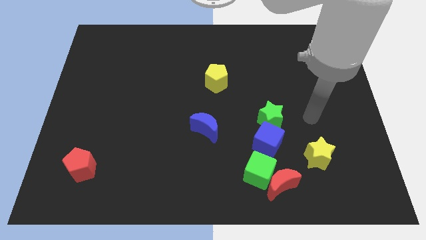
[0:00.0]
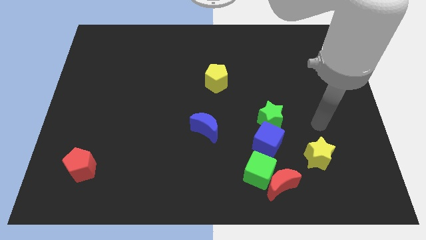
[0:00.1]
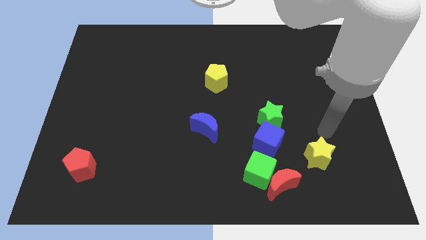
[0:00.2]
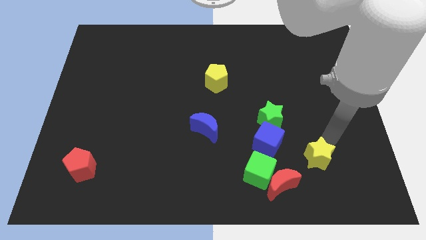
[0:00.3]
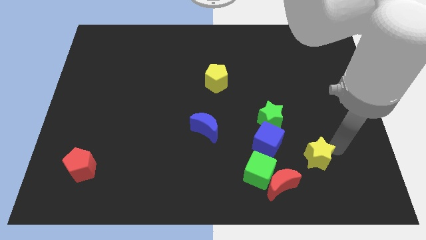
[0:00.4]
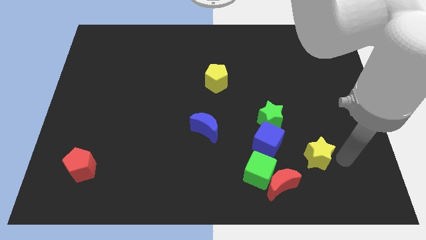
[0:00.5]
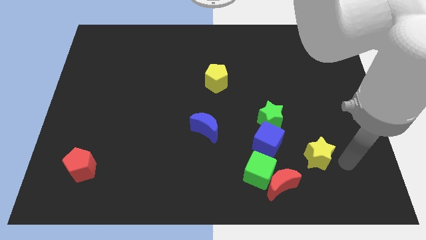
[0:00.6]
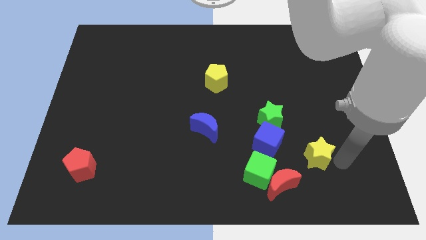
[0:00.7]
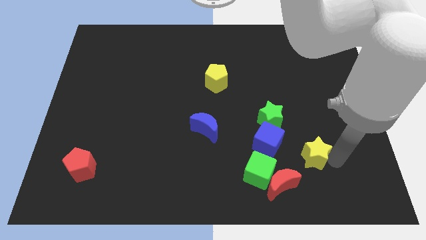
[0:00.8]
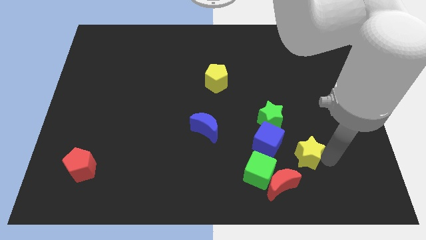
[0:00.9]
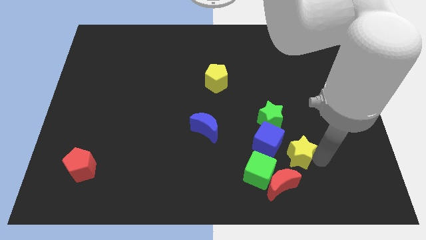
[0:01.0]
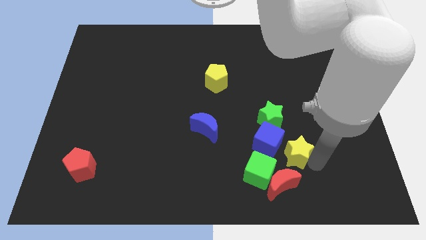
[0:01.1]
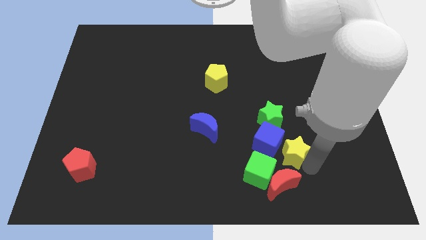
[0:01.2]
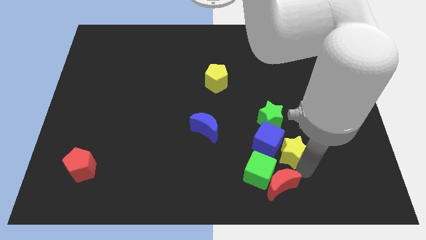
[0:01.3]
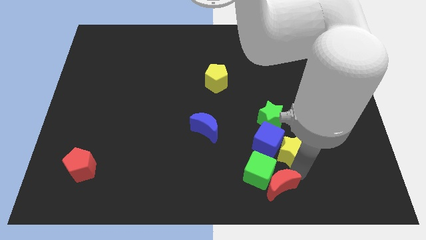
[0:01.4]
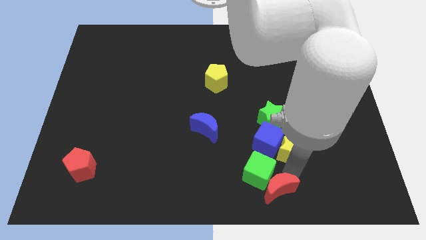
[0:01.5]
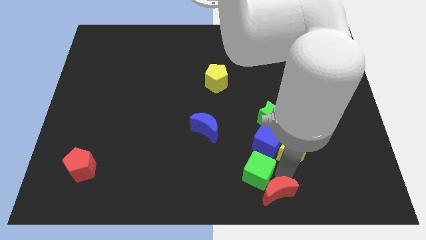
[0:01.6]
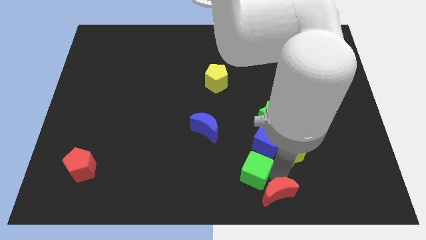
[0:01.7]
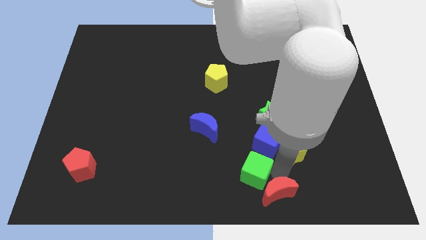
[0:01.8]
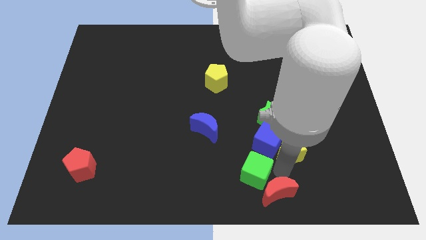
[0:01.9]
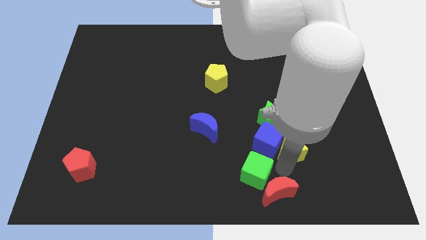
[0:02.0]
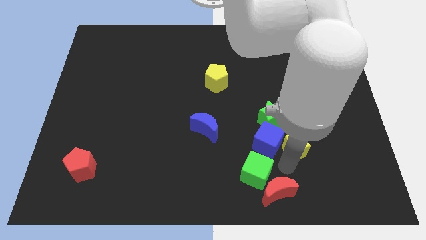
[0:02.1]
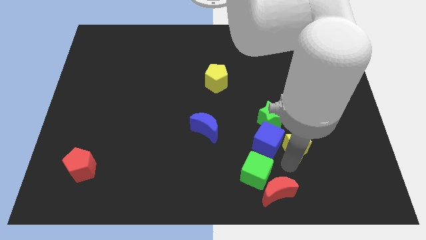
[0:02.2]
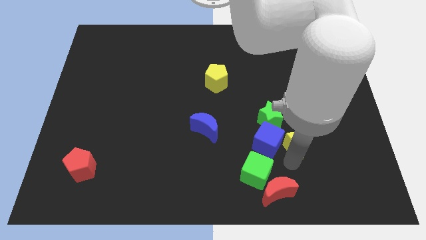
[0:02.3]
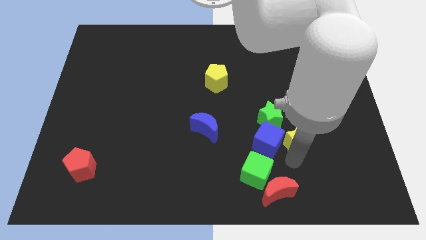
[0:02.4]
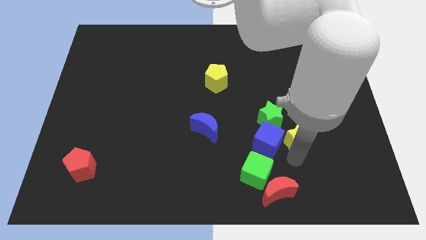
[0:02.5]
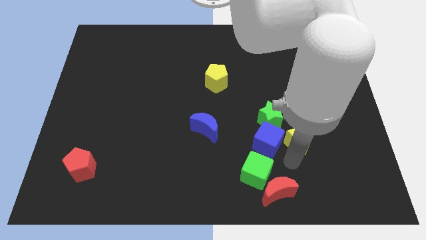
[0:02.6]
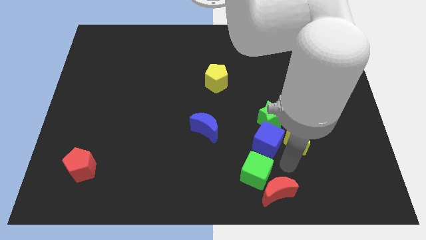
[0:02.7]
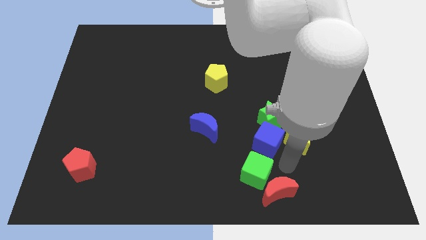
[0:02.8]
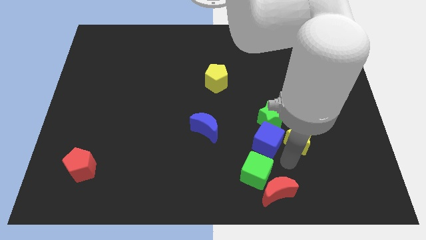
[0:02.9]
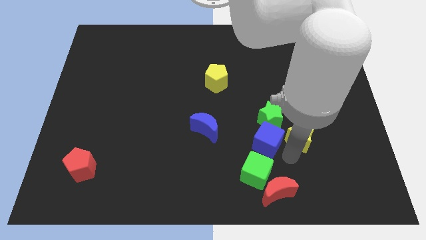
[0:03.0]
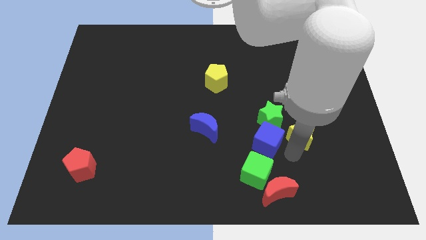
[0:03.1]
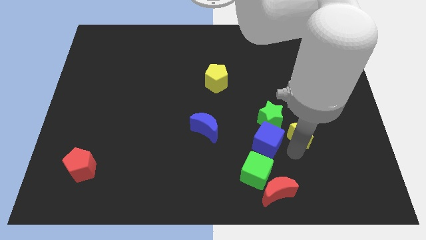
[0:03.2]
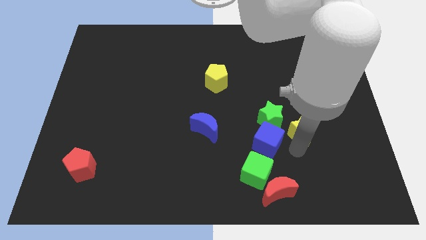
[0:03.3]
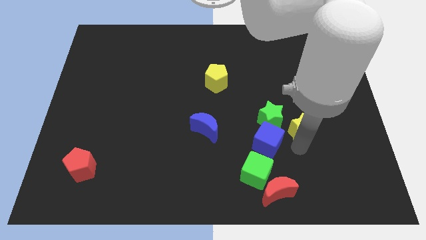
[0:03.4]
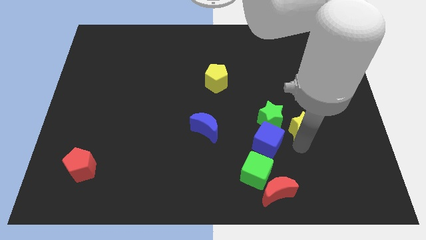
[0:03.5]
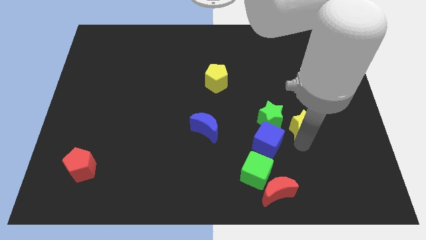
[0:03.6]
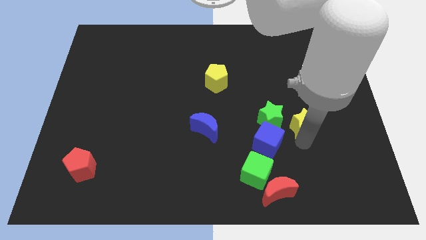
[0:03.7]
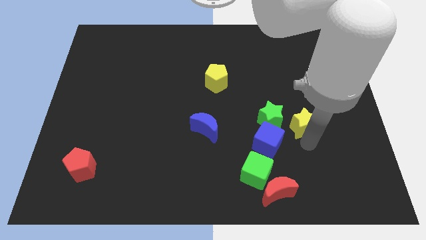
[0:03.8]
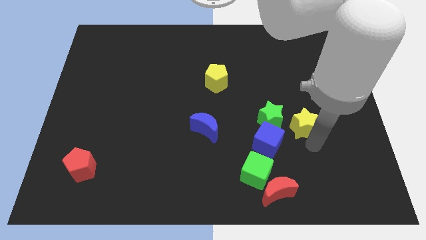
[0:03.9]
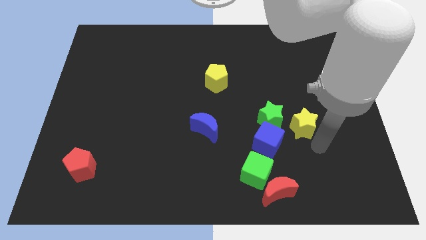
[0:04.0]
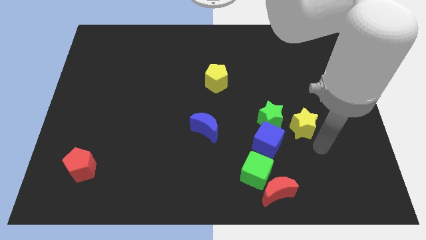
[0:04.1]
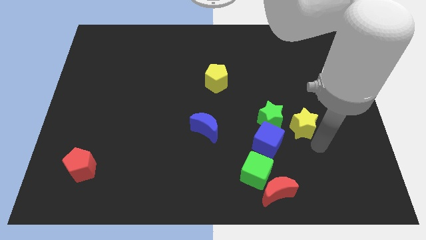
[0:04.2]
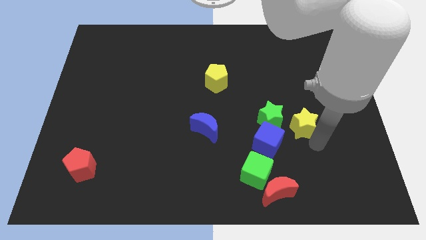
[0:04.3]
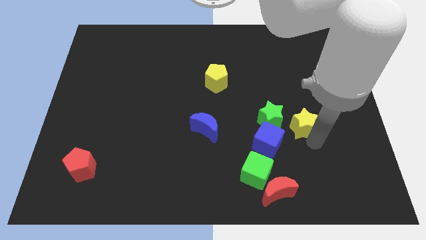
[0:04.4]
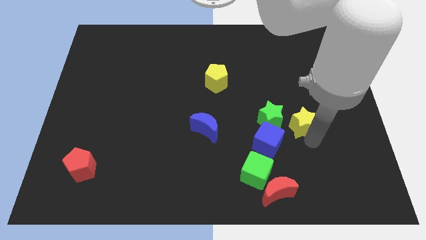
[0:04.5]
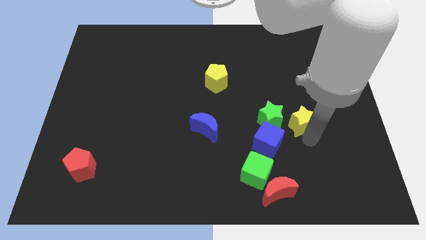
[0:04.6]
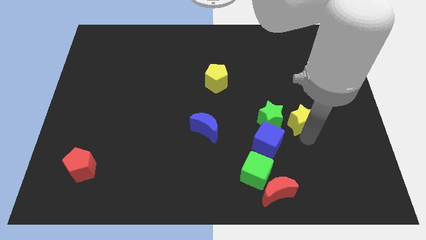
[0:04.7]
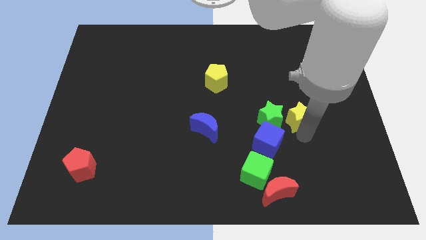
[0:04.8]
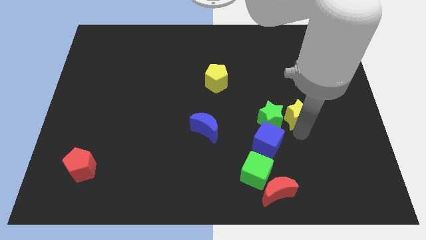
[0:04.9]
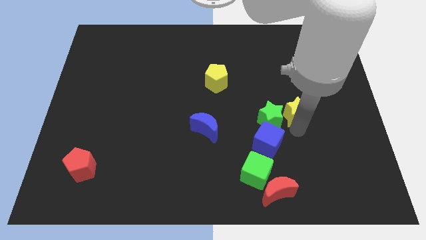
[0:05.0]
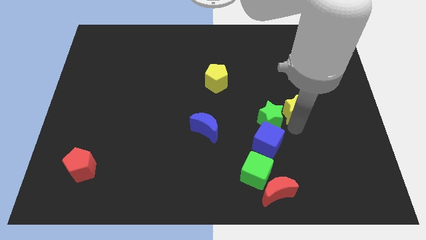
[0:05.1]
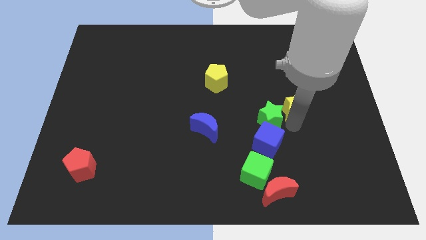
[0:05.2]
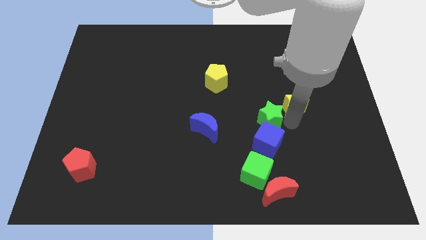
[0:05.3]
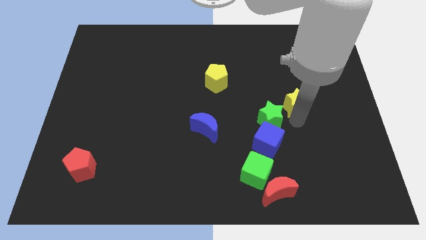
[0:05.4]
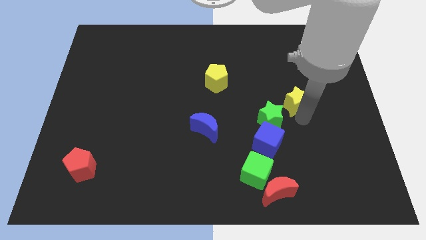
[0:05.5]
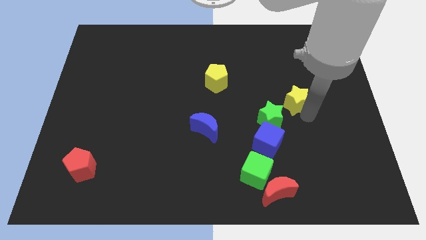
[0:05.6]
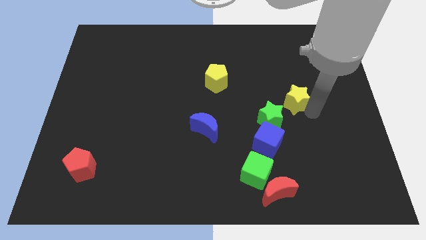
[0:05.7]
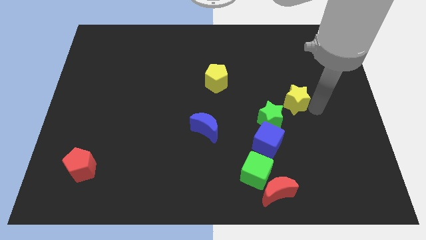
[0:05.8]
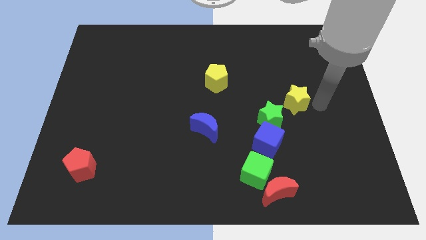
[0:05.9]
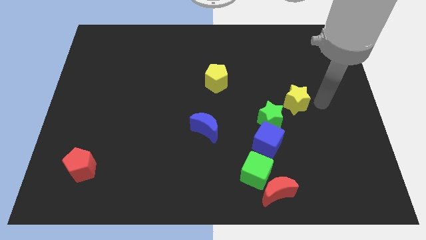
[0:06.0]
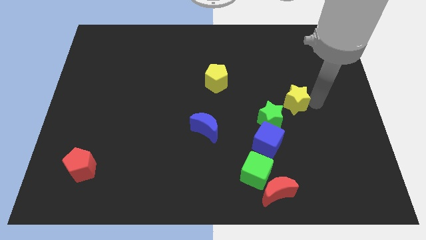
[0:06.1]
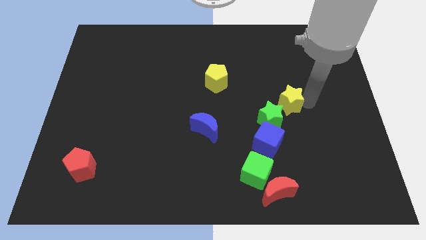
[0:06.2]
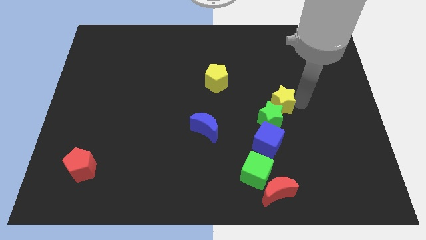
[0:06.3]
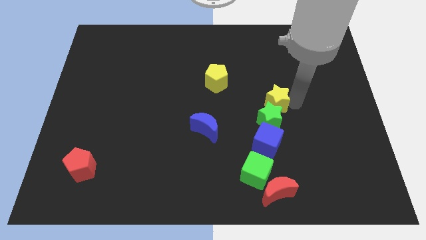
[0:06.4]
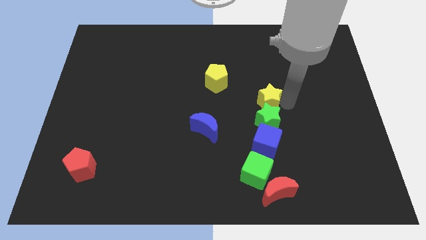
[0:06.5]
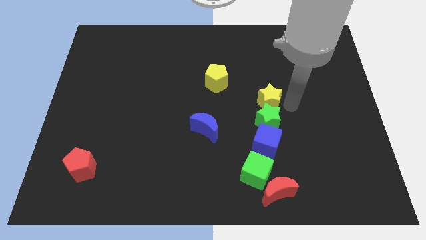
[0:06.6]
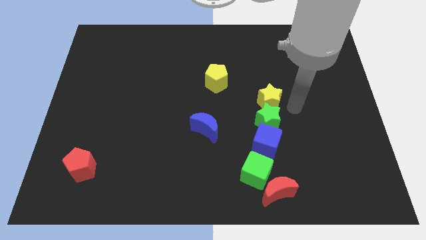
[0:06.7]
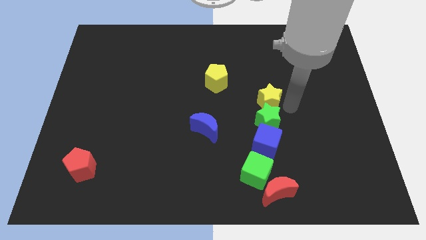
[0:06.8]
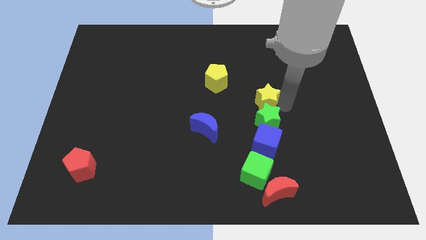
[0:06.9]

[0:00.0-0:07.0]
slide the yellow star to the center of the board
